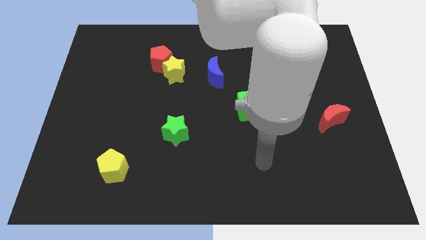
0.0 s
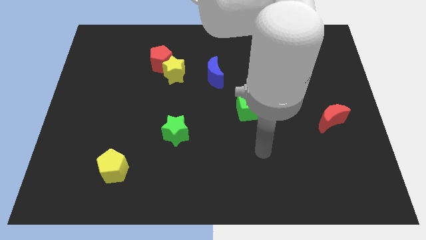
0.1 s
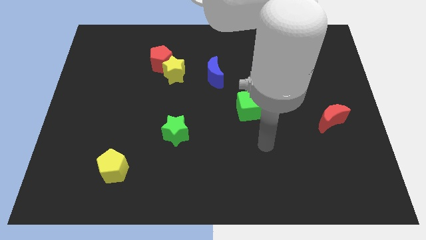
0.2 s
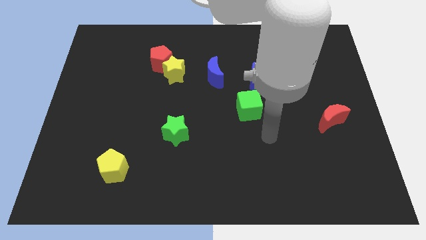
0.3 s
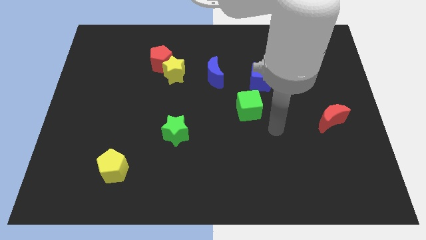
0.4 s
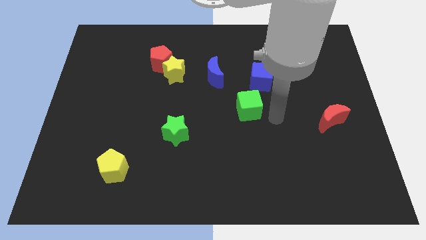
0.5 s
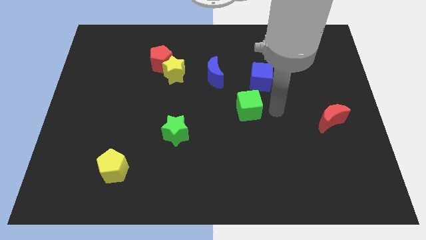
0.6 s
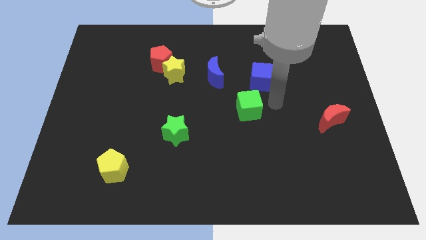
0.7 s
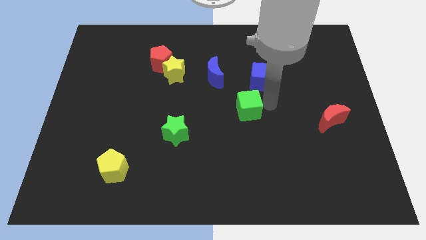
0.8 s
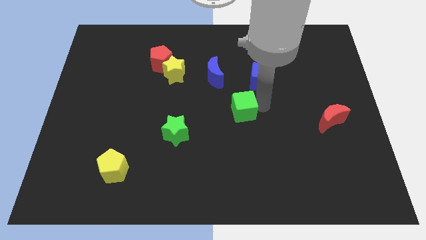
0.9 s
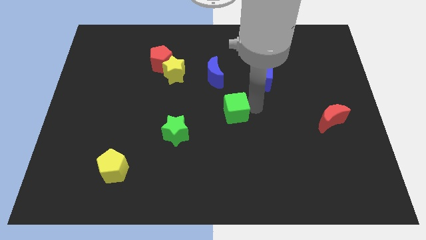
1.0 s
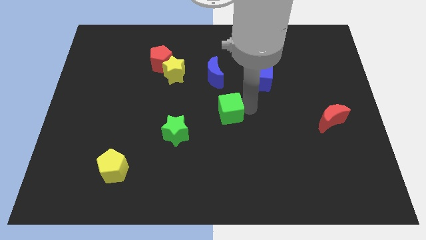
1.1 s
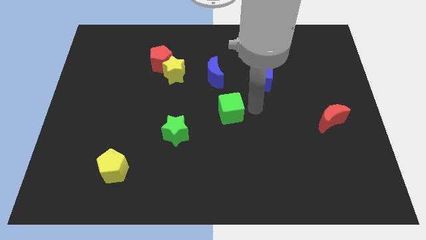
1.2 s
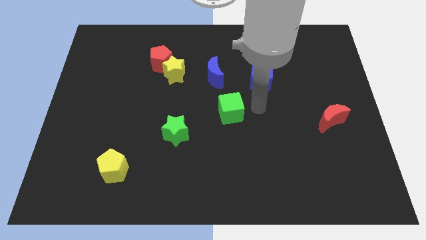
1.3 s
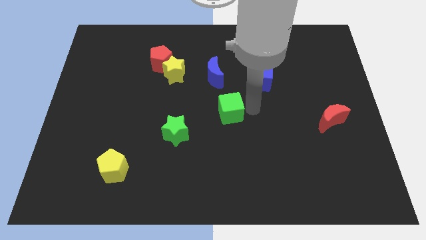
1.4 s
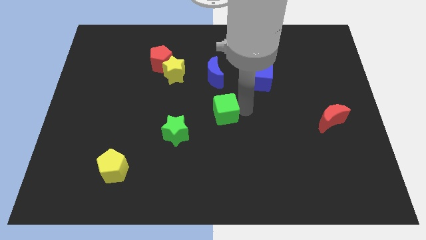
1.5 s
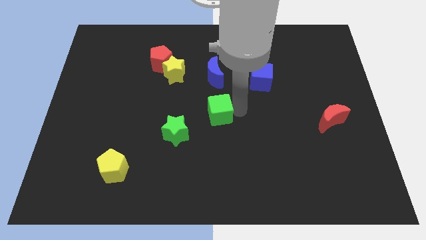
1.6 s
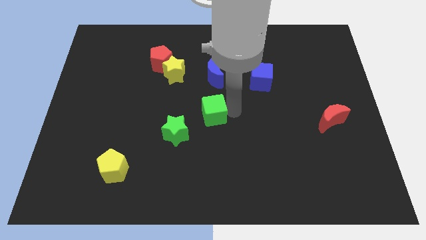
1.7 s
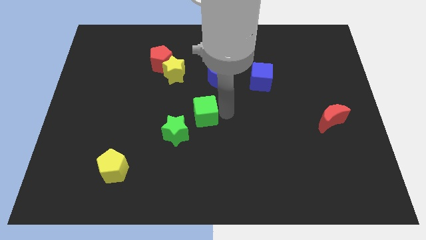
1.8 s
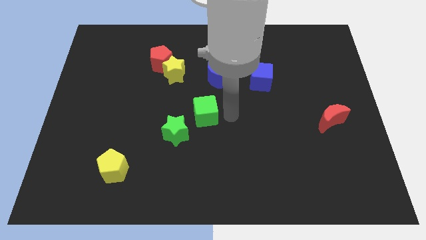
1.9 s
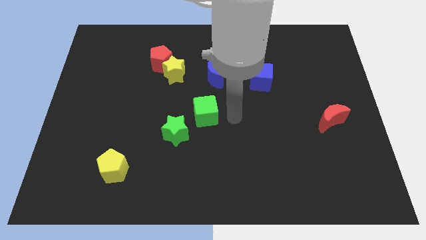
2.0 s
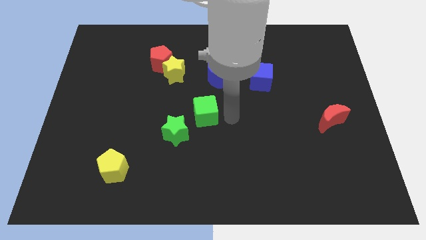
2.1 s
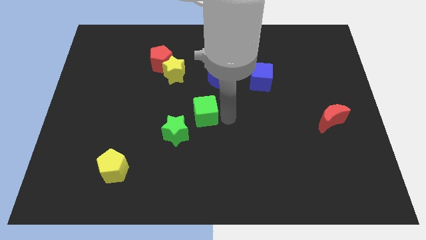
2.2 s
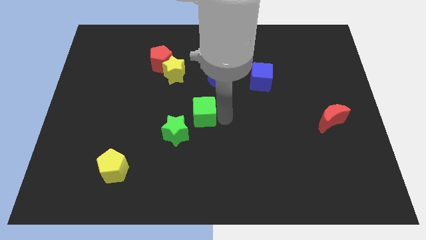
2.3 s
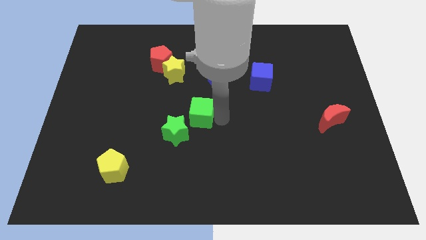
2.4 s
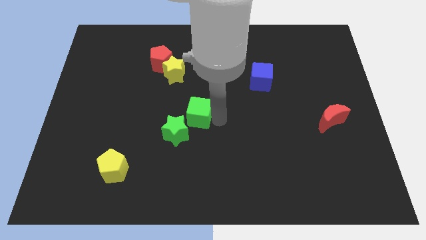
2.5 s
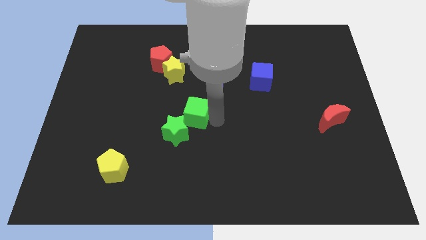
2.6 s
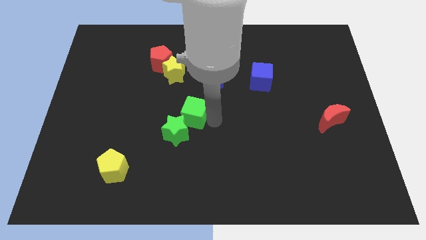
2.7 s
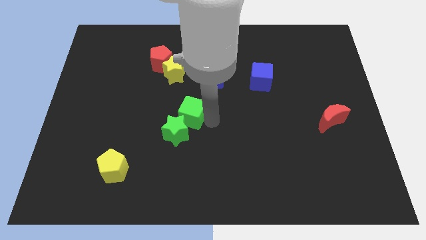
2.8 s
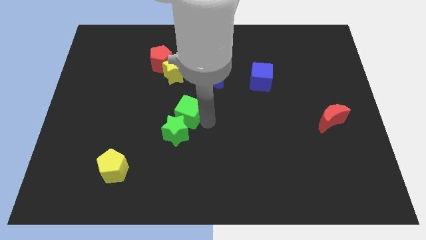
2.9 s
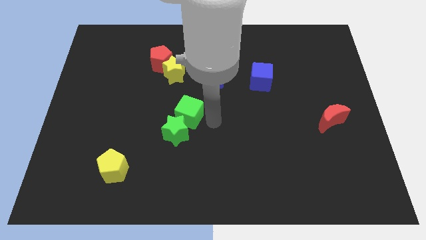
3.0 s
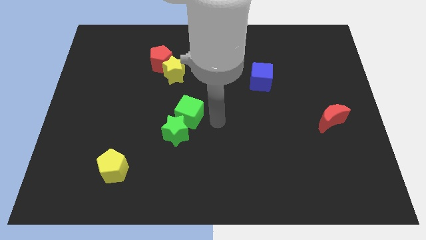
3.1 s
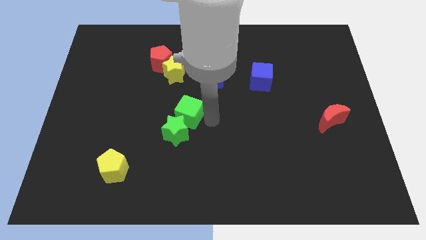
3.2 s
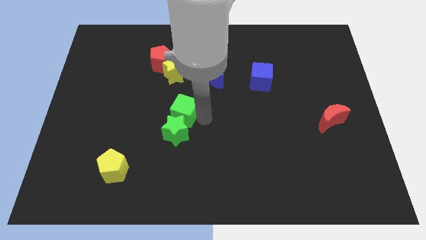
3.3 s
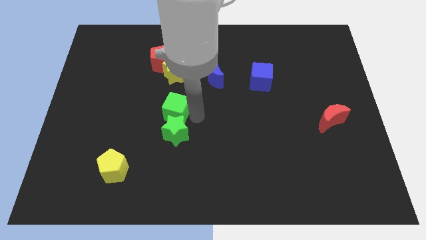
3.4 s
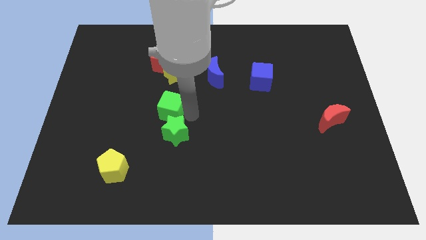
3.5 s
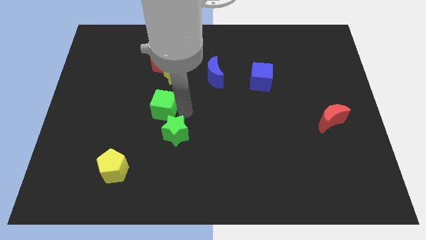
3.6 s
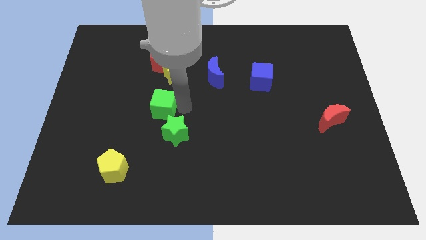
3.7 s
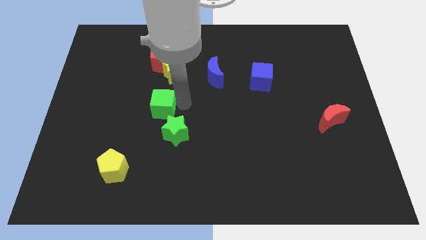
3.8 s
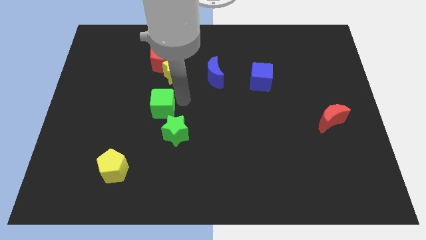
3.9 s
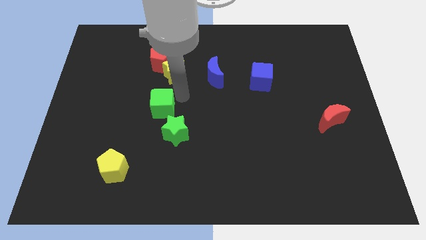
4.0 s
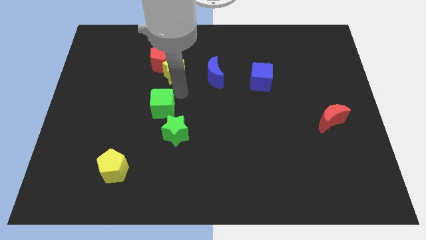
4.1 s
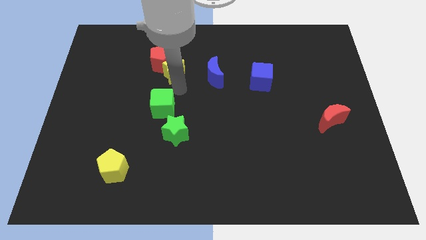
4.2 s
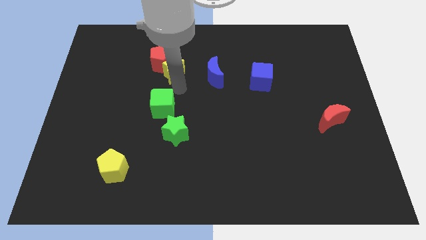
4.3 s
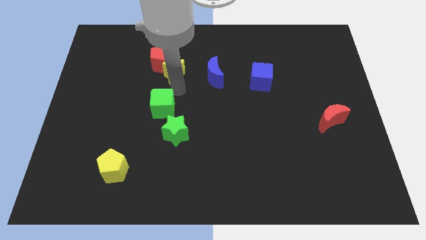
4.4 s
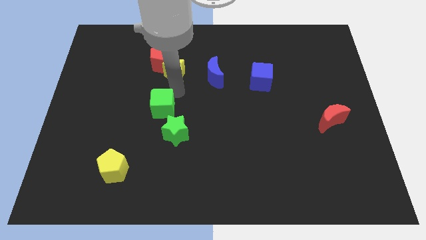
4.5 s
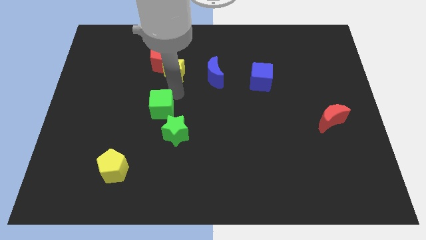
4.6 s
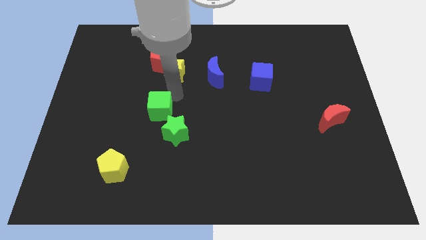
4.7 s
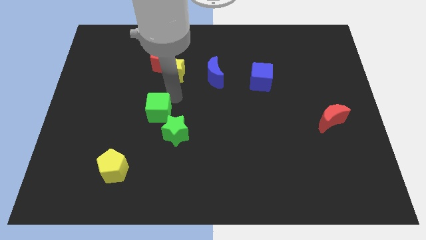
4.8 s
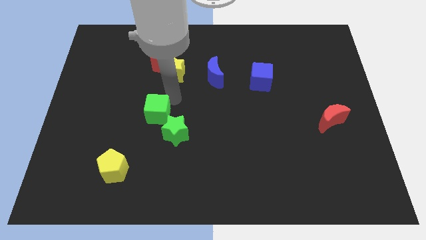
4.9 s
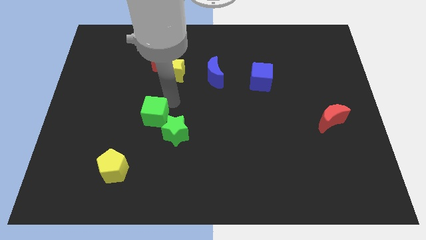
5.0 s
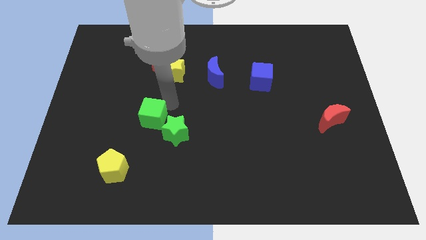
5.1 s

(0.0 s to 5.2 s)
push the green cube just left of the green star

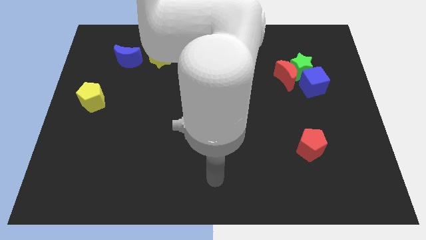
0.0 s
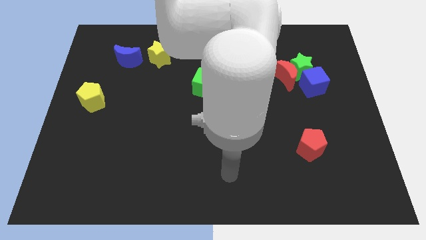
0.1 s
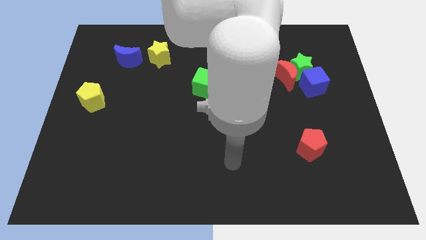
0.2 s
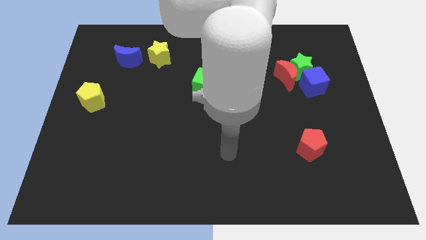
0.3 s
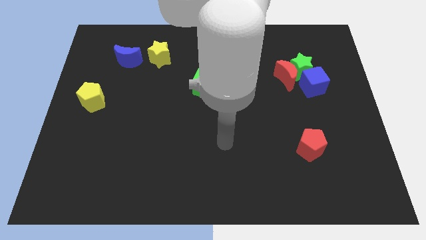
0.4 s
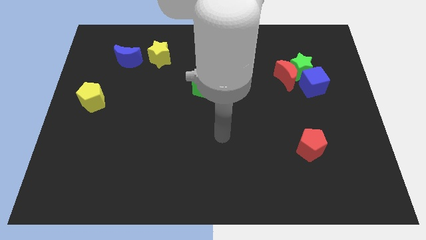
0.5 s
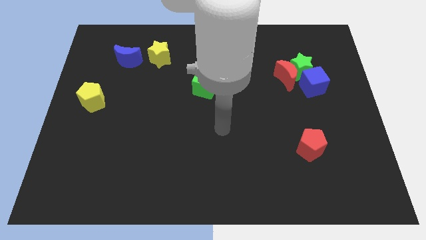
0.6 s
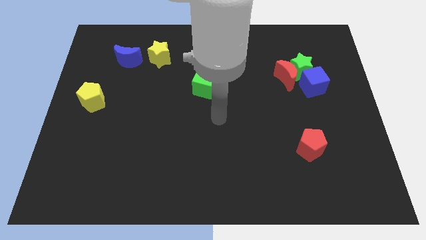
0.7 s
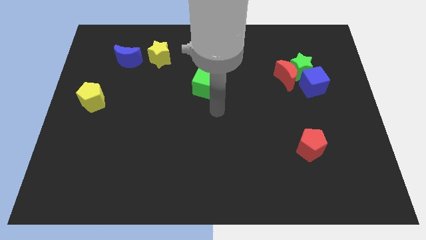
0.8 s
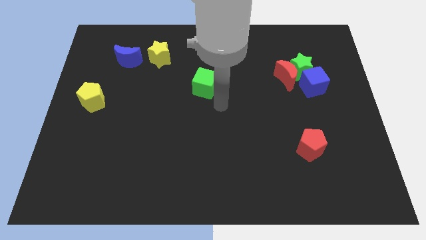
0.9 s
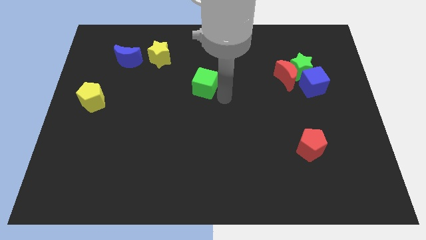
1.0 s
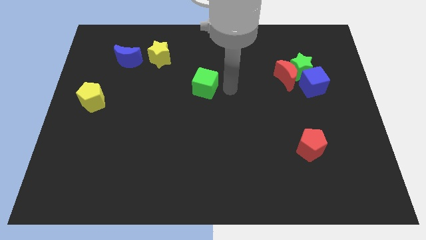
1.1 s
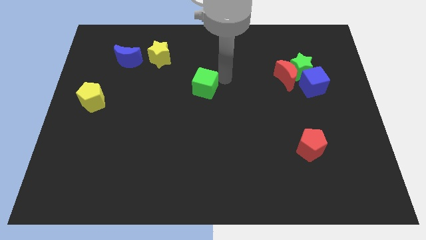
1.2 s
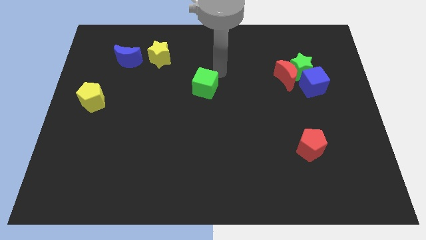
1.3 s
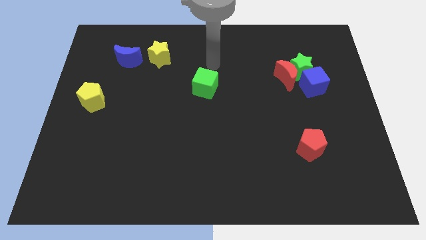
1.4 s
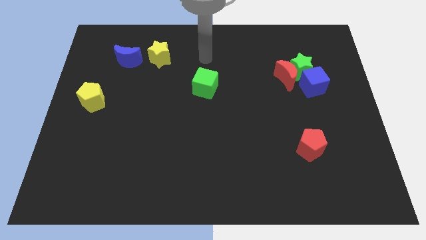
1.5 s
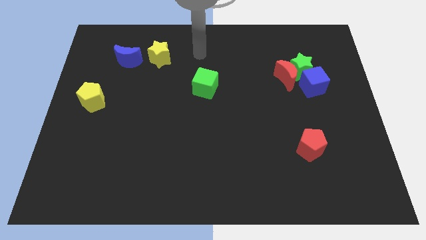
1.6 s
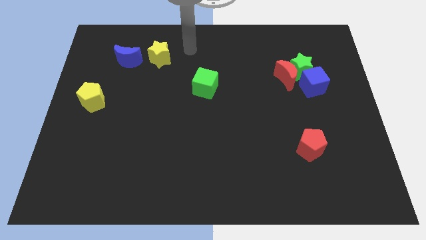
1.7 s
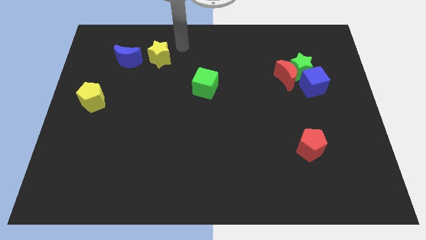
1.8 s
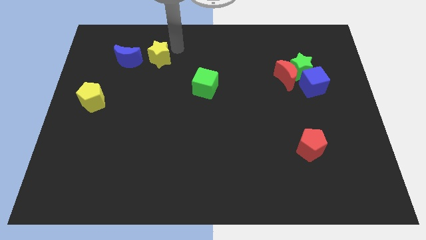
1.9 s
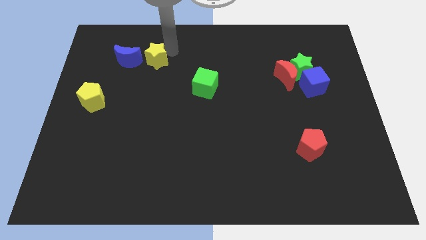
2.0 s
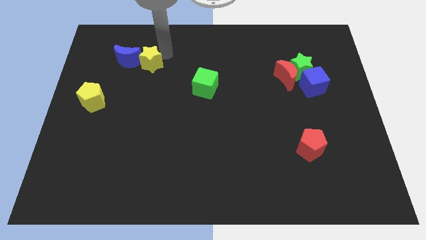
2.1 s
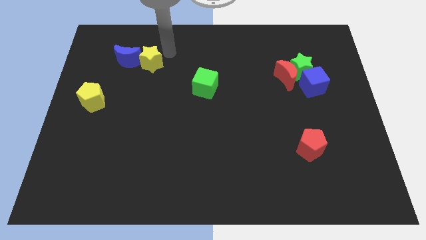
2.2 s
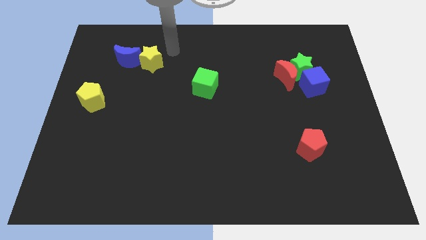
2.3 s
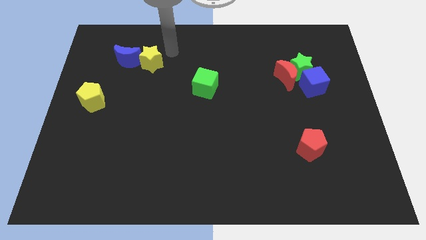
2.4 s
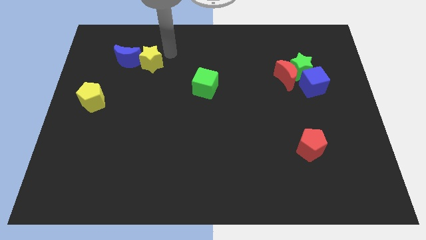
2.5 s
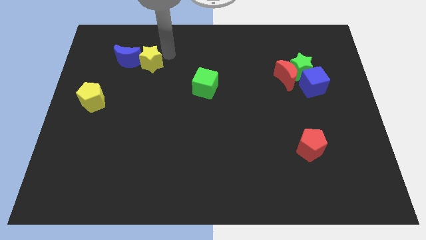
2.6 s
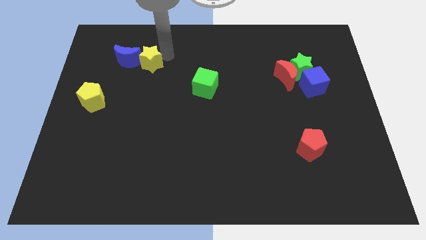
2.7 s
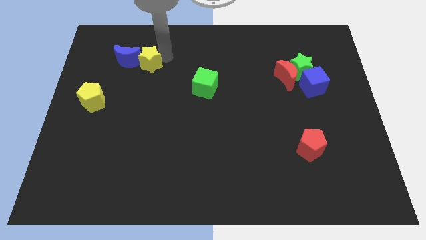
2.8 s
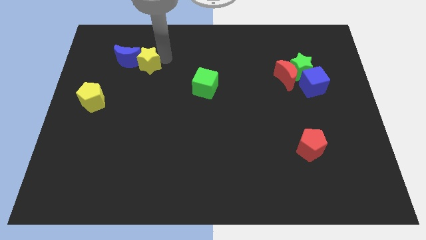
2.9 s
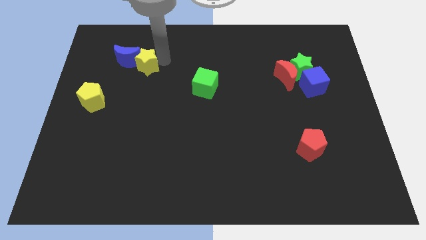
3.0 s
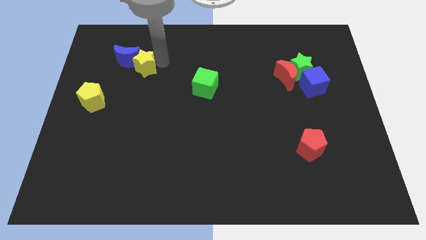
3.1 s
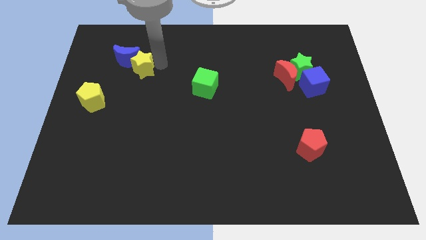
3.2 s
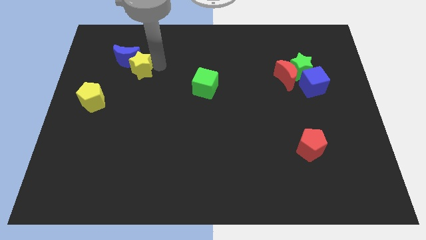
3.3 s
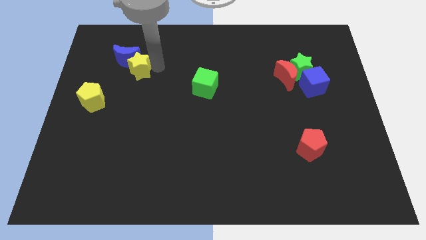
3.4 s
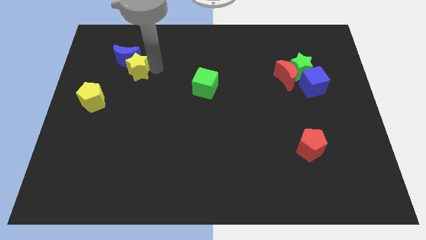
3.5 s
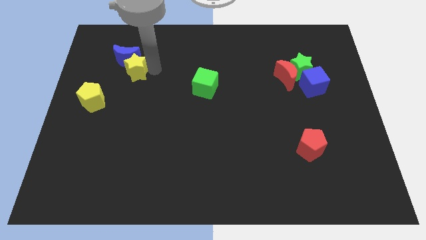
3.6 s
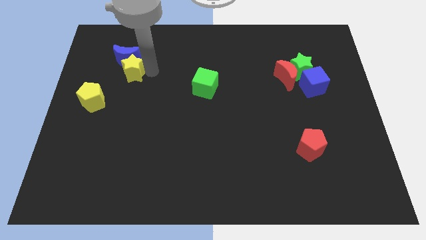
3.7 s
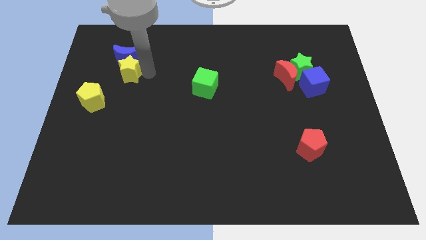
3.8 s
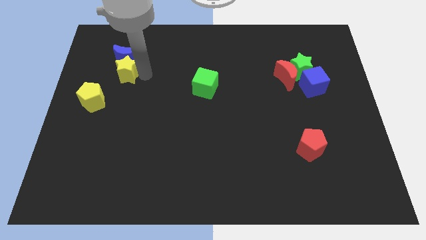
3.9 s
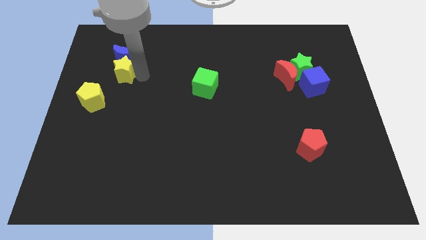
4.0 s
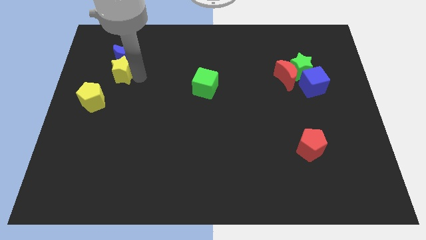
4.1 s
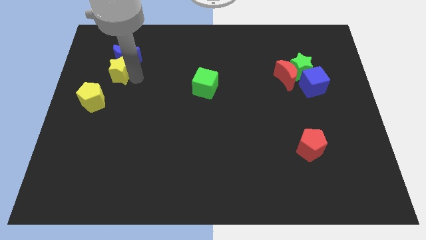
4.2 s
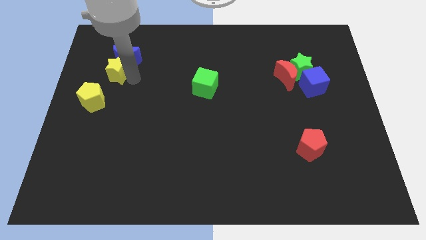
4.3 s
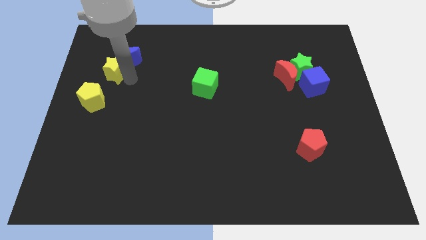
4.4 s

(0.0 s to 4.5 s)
push the yellow star to the top of the yellow pentagon
